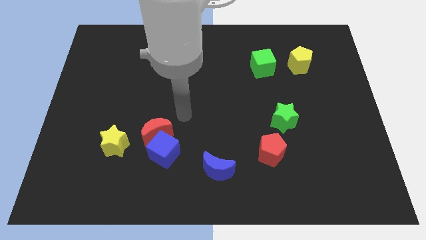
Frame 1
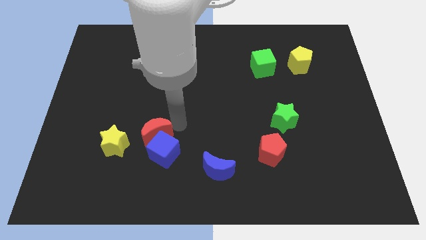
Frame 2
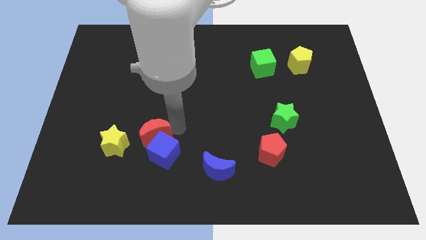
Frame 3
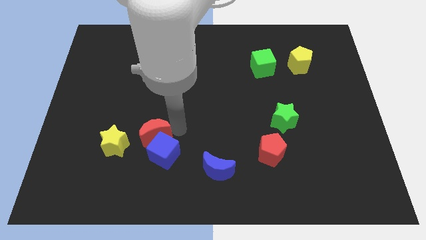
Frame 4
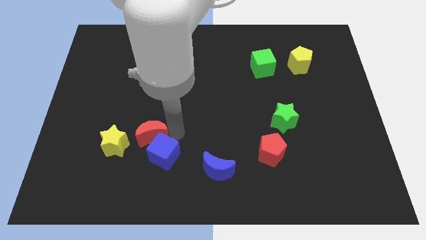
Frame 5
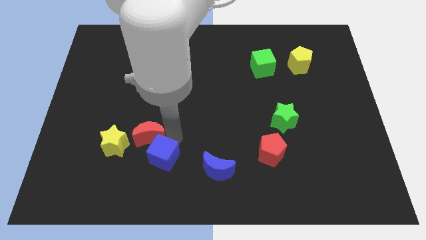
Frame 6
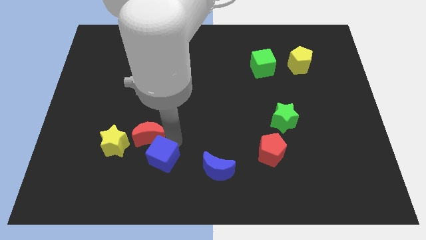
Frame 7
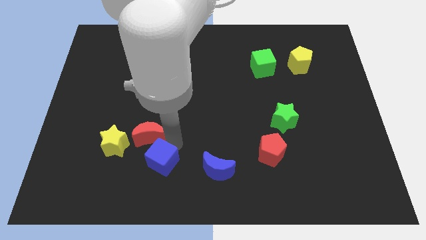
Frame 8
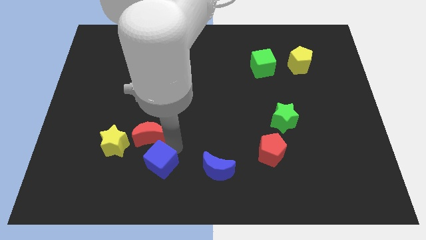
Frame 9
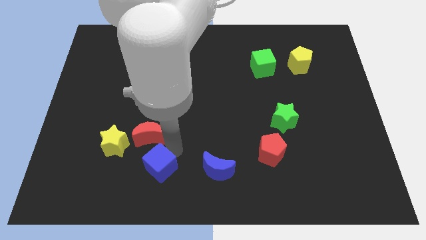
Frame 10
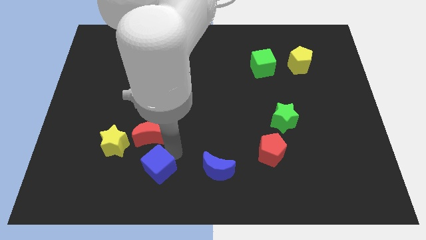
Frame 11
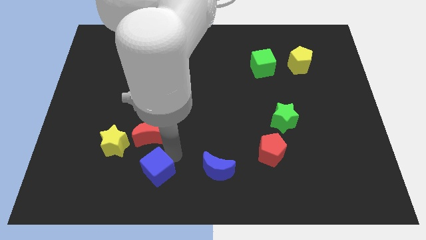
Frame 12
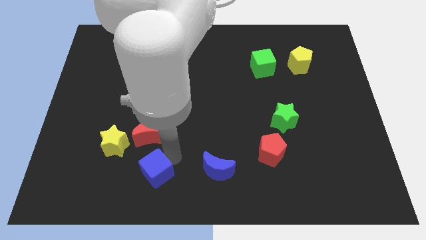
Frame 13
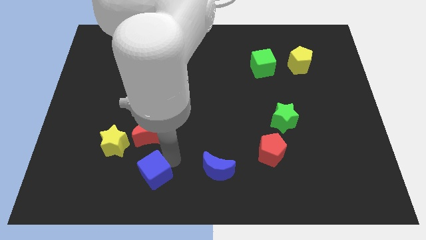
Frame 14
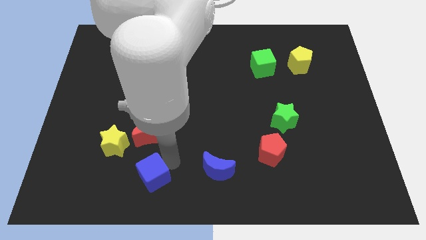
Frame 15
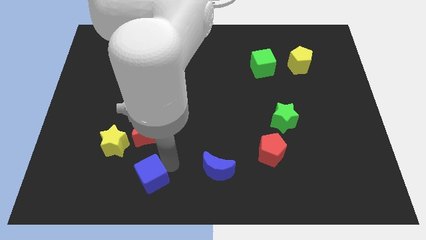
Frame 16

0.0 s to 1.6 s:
pull the blue cube apart from the red moon

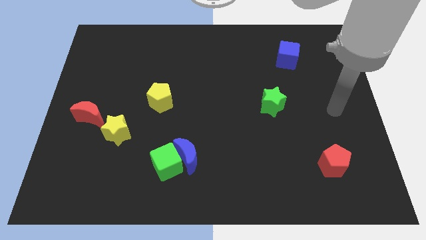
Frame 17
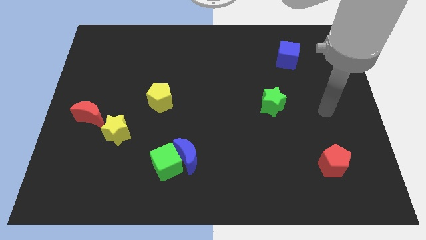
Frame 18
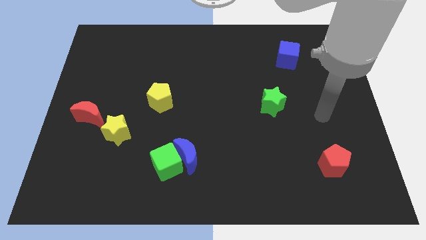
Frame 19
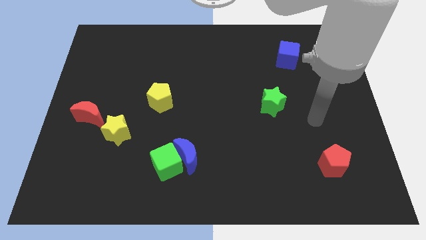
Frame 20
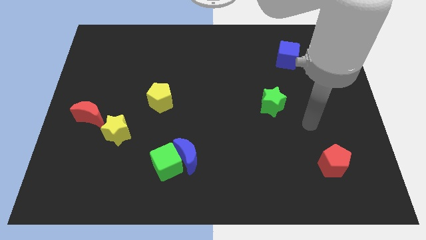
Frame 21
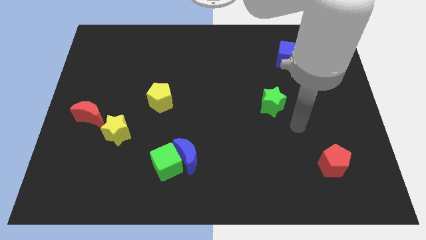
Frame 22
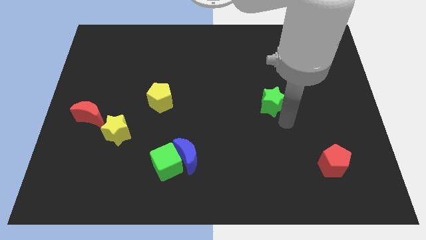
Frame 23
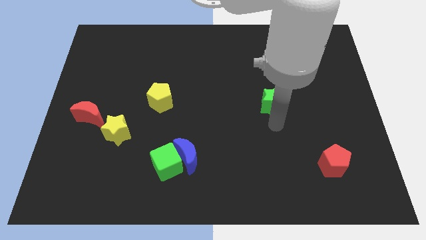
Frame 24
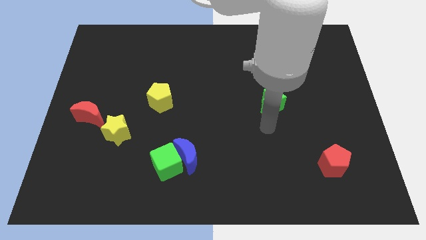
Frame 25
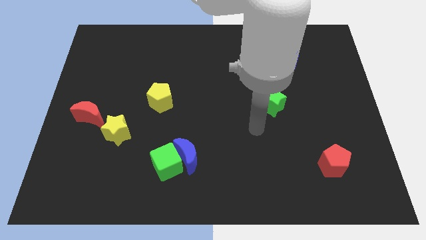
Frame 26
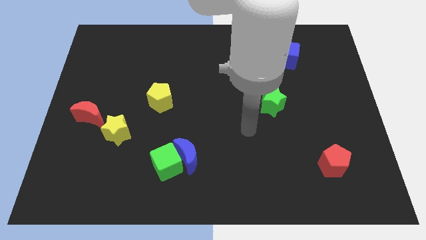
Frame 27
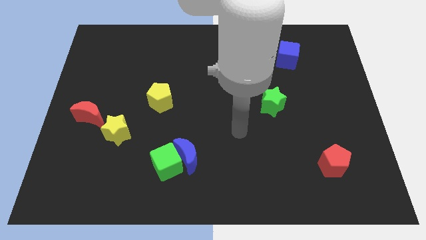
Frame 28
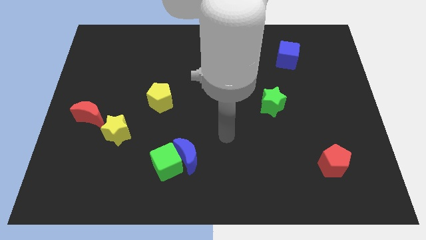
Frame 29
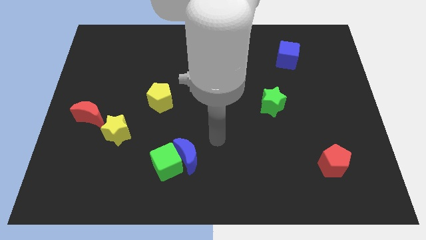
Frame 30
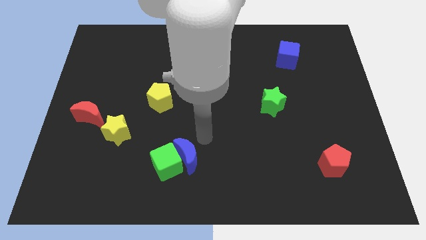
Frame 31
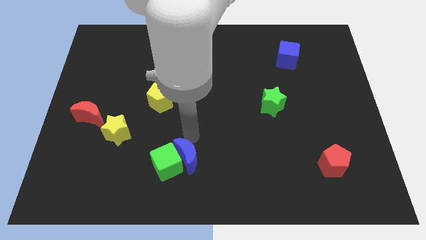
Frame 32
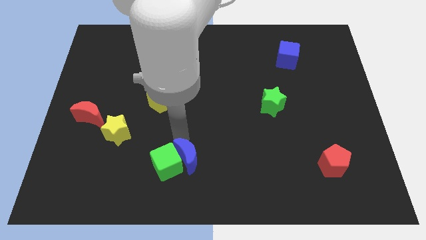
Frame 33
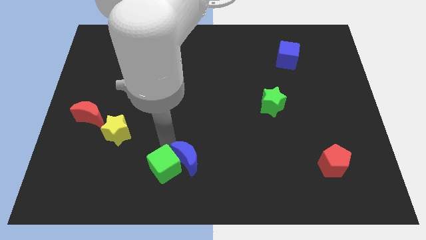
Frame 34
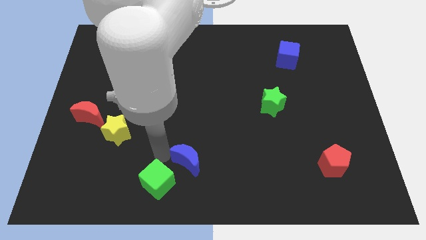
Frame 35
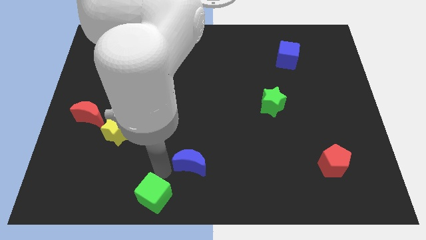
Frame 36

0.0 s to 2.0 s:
separate the blue moon from the green cube

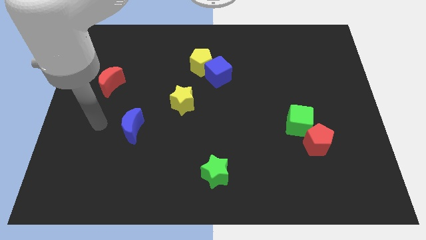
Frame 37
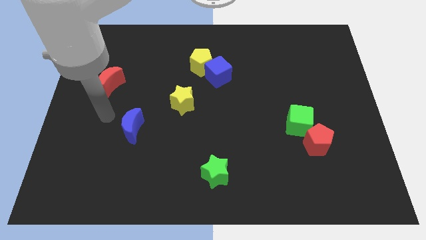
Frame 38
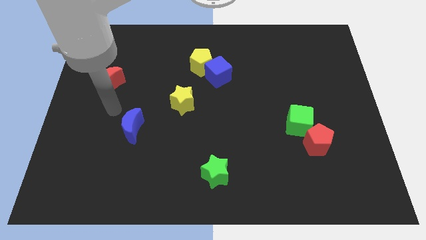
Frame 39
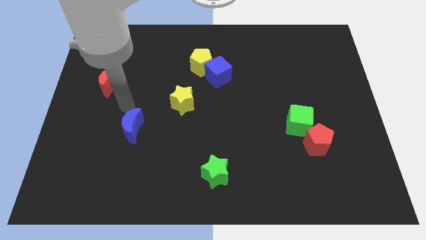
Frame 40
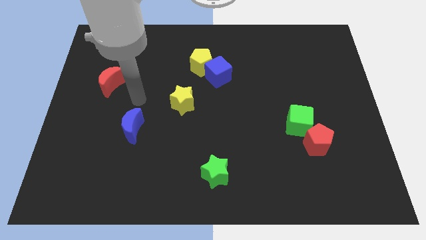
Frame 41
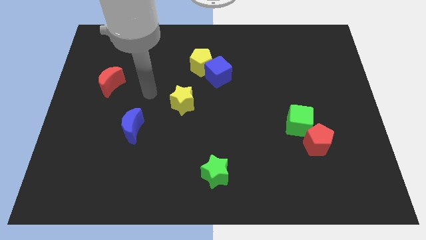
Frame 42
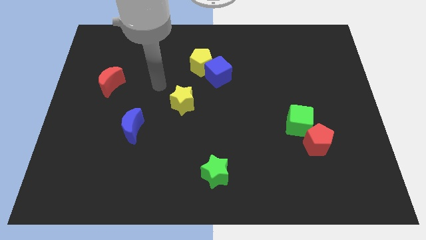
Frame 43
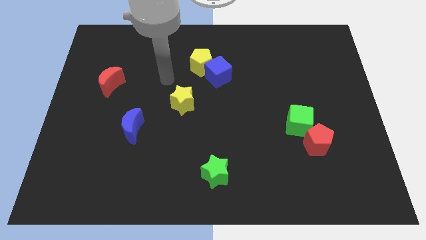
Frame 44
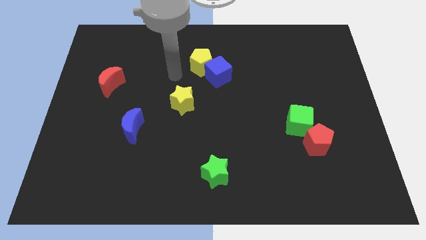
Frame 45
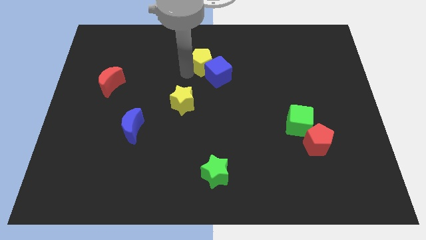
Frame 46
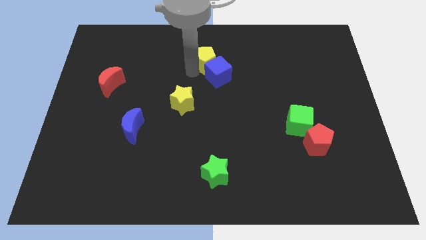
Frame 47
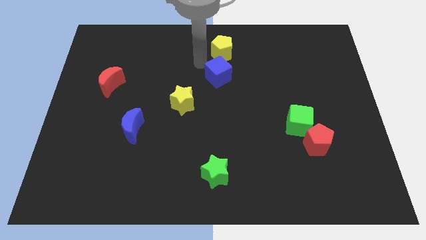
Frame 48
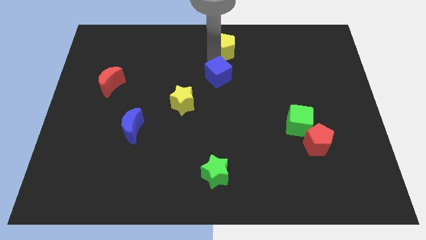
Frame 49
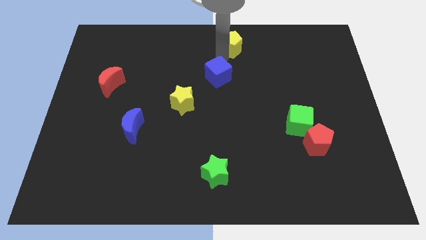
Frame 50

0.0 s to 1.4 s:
move the blue cube away from the yellow pentagon

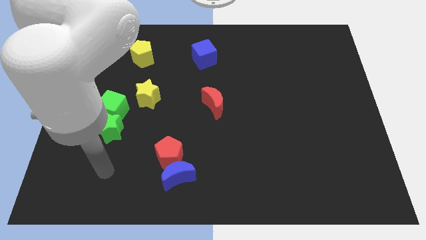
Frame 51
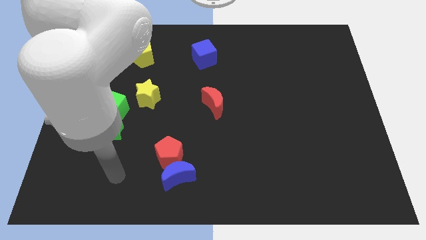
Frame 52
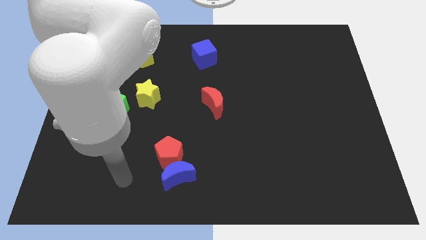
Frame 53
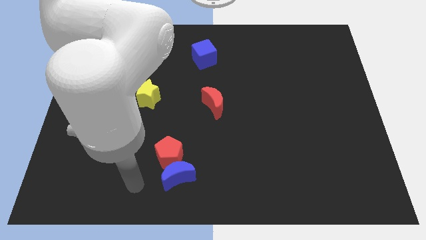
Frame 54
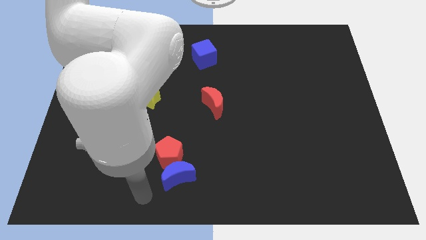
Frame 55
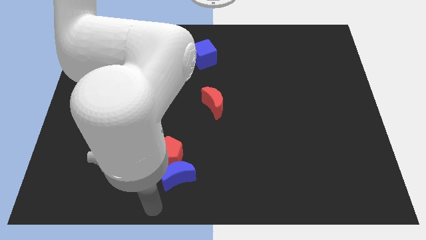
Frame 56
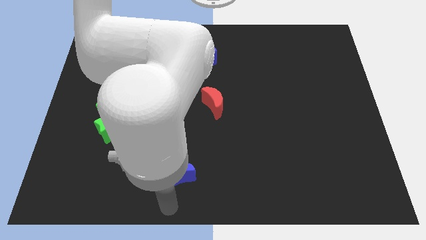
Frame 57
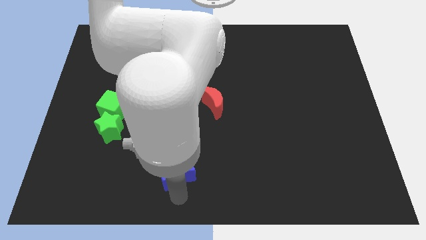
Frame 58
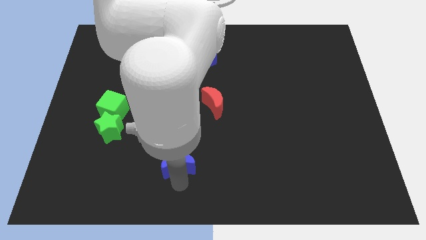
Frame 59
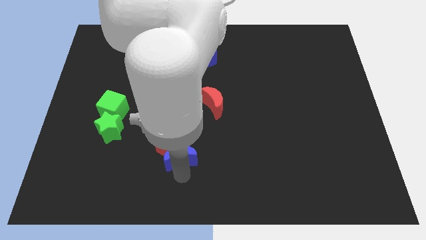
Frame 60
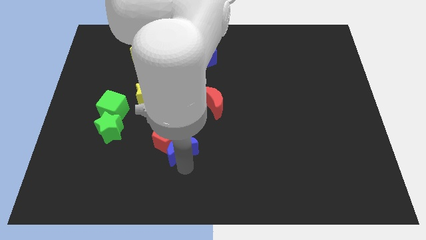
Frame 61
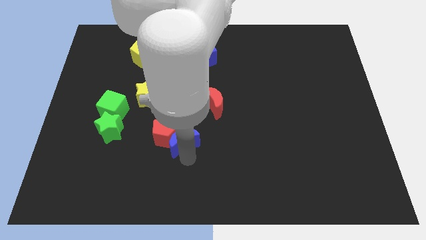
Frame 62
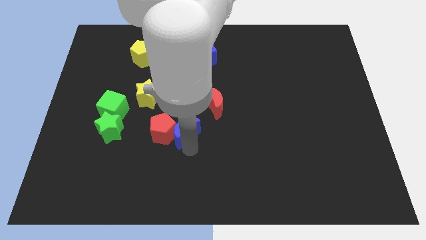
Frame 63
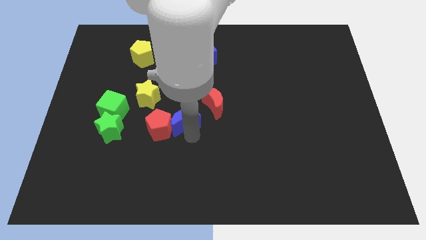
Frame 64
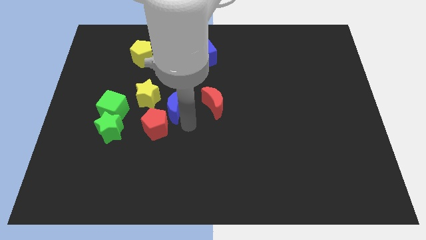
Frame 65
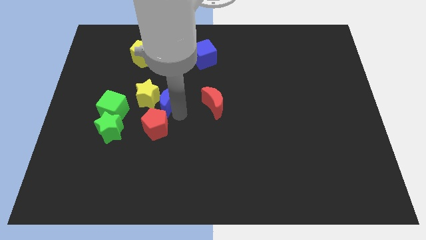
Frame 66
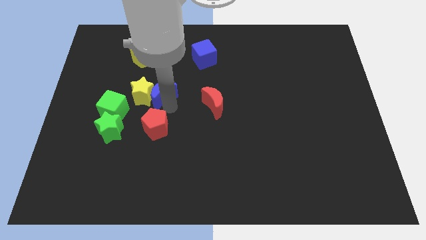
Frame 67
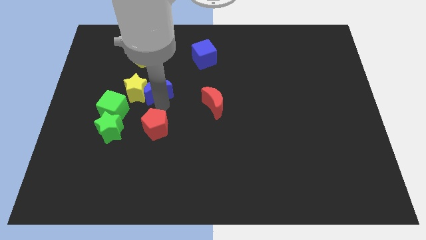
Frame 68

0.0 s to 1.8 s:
separate the red pentagon from the blue moon

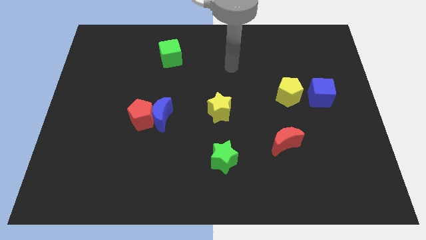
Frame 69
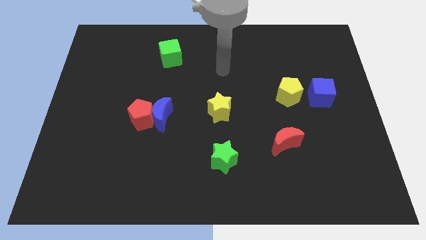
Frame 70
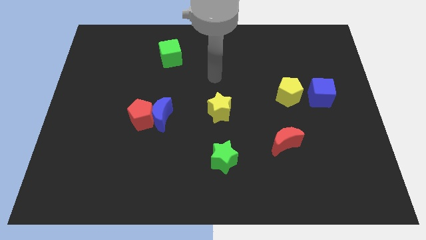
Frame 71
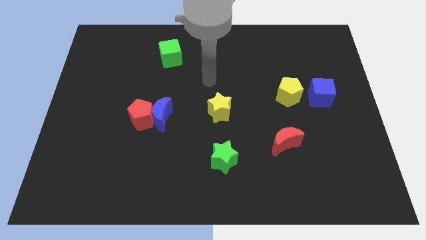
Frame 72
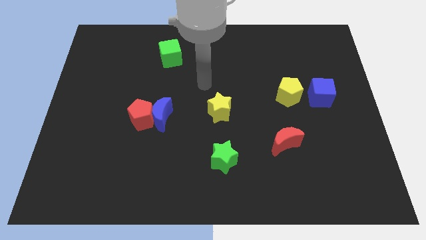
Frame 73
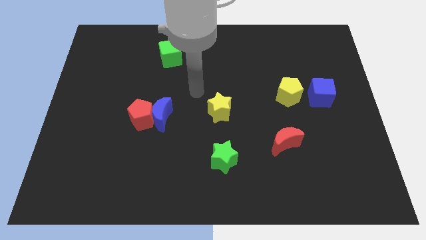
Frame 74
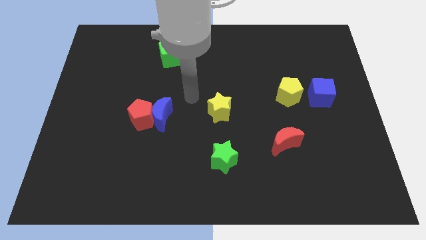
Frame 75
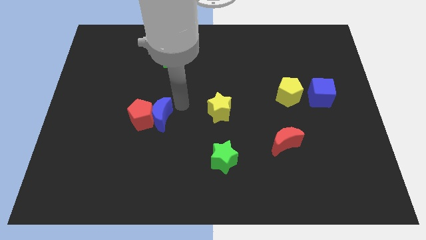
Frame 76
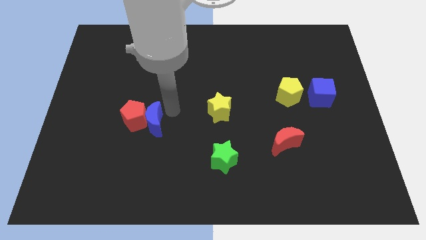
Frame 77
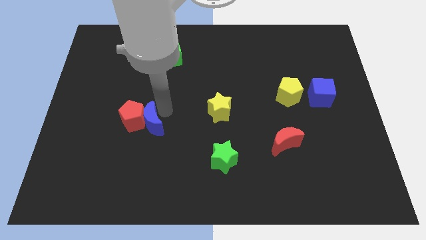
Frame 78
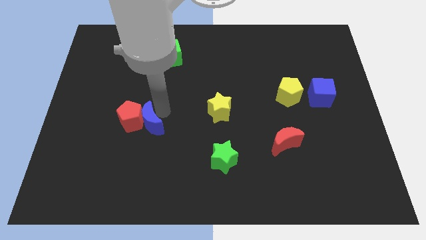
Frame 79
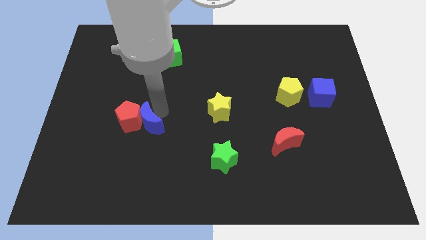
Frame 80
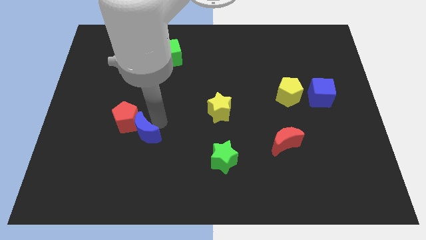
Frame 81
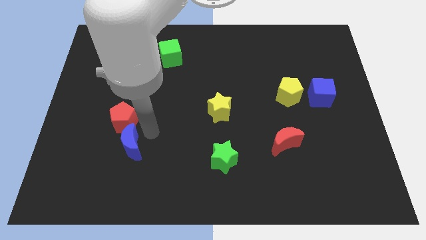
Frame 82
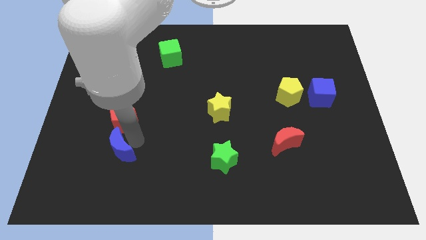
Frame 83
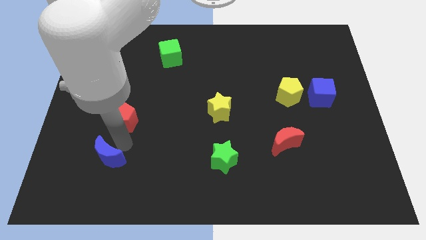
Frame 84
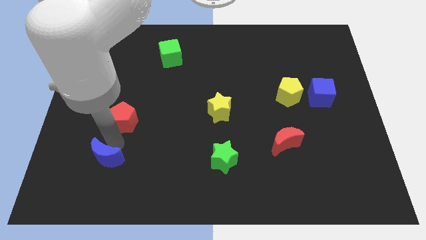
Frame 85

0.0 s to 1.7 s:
pull the red pentagon apart from the blue moon

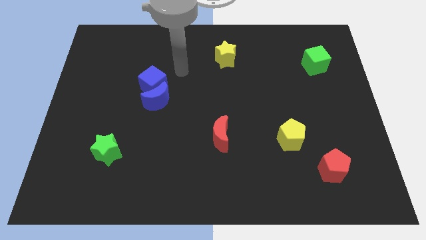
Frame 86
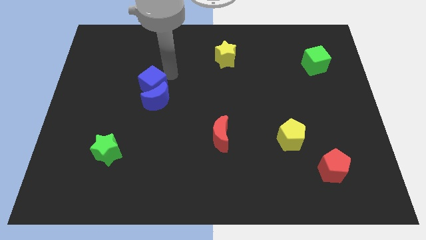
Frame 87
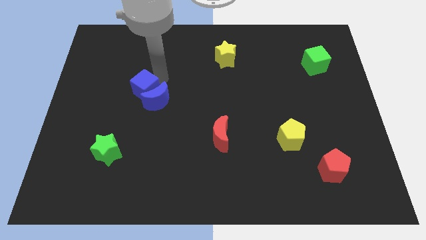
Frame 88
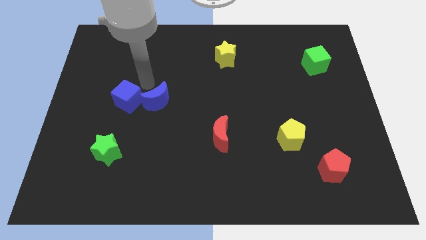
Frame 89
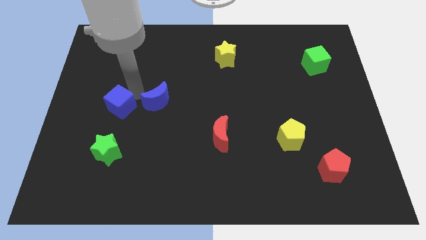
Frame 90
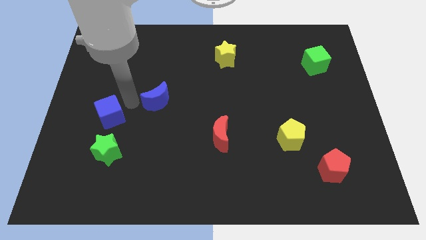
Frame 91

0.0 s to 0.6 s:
move the blue moon away from the blue cube

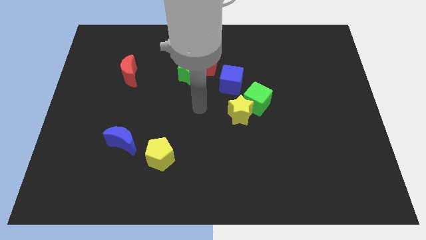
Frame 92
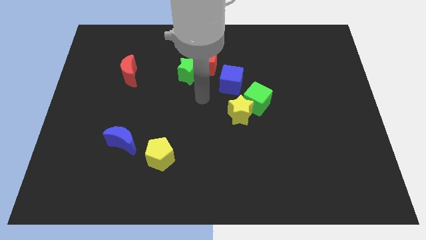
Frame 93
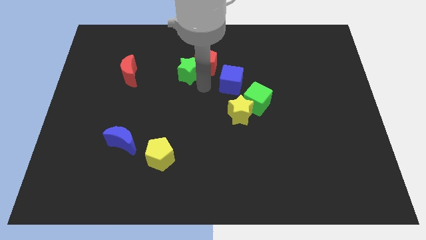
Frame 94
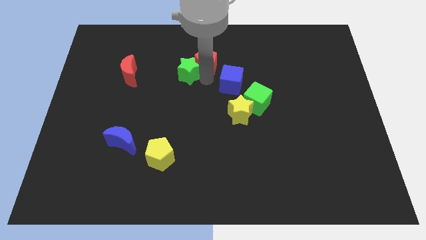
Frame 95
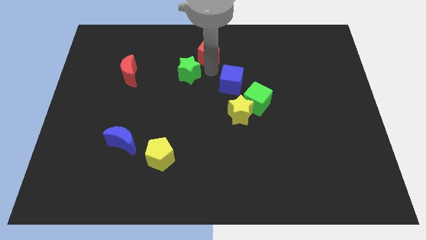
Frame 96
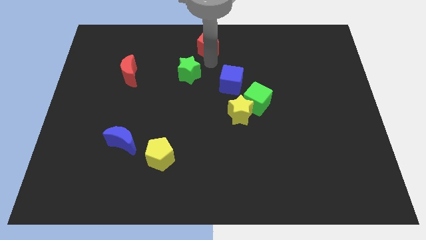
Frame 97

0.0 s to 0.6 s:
pull the green star apart from the red pentagon
